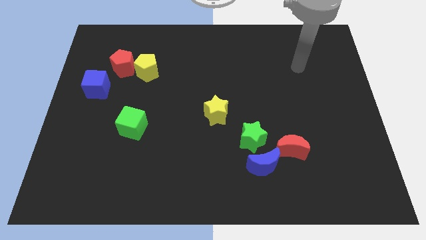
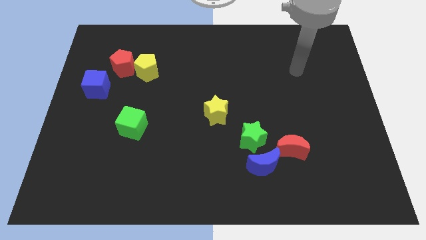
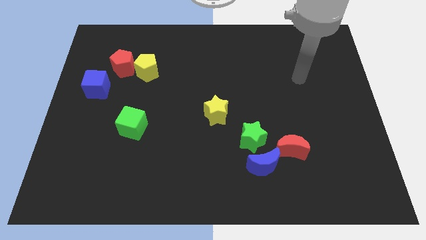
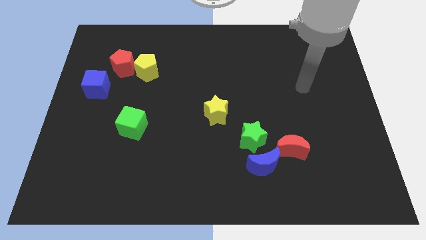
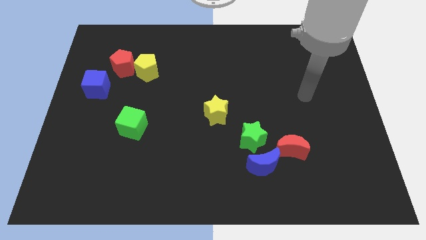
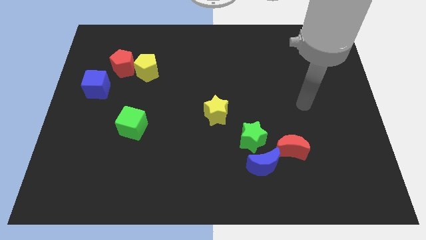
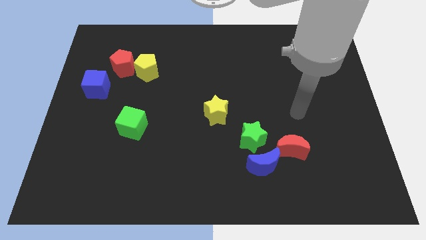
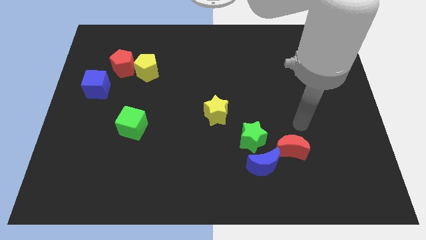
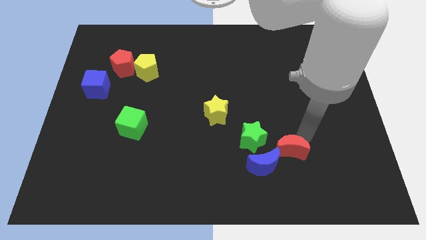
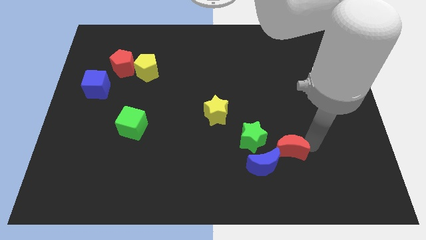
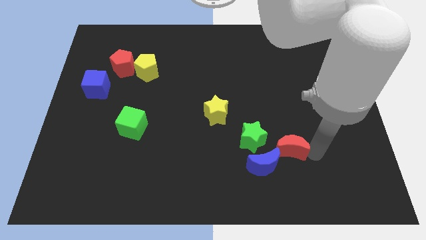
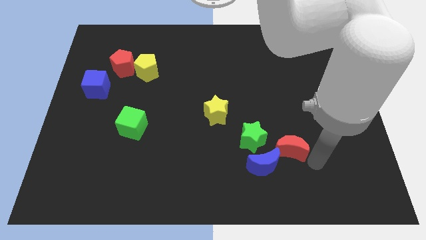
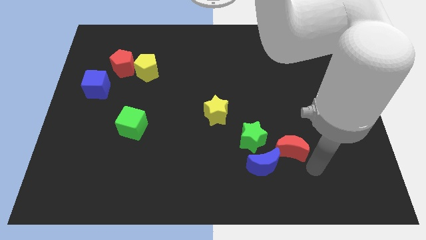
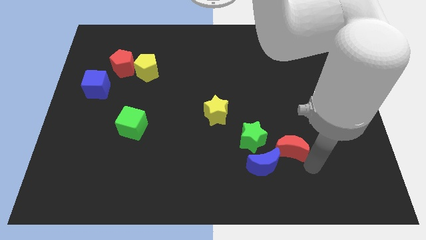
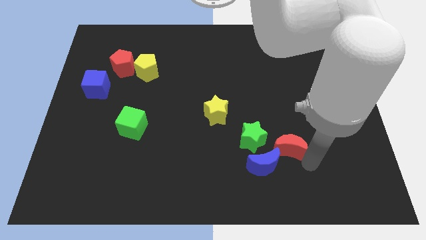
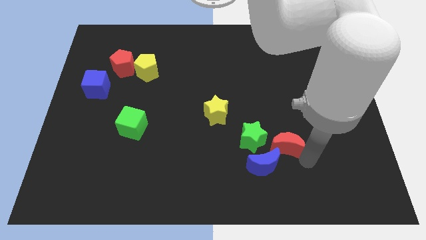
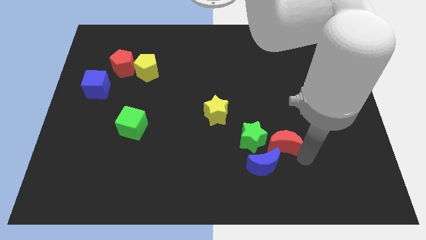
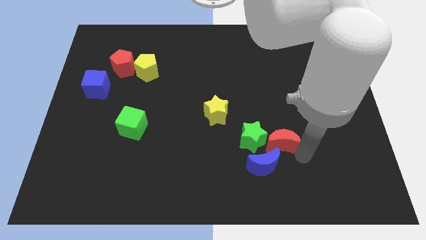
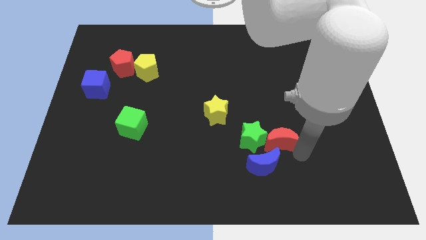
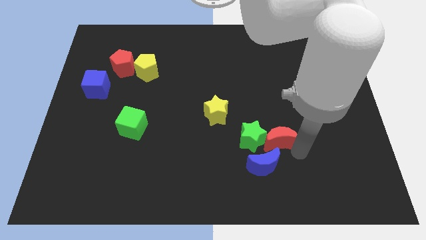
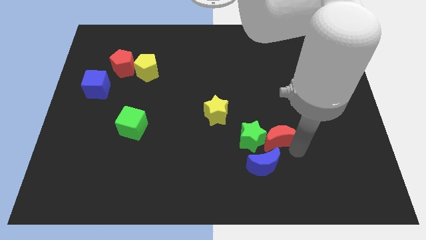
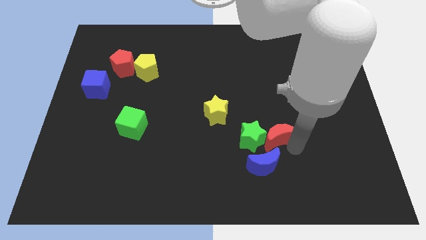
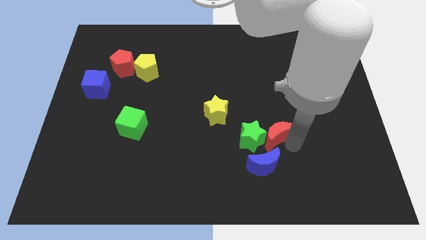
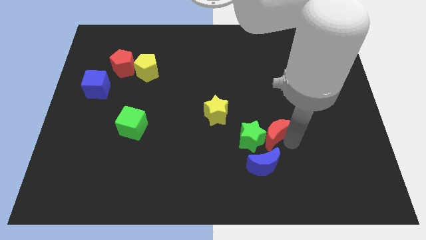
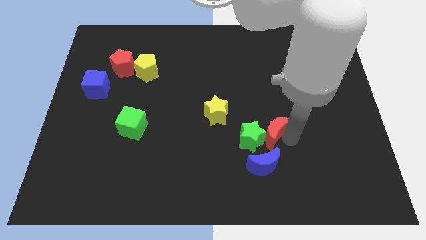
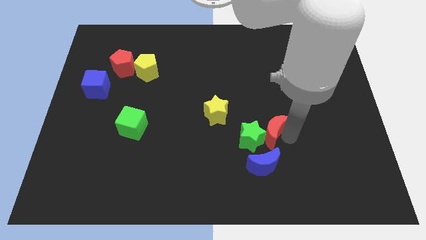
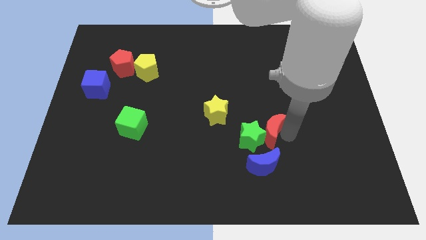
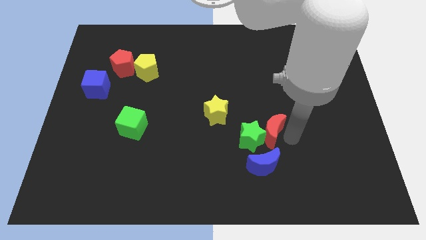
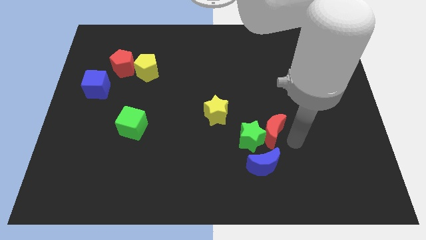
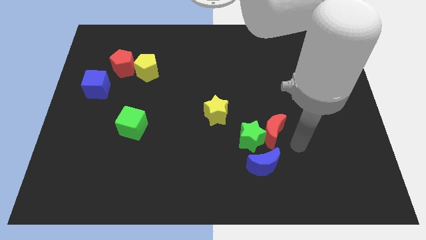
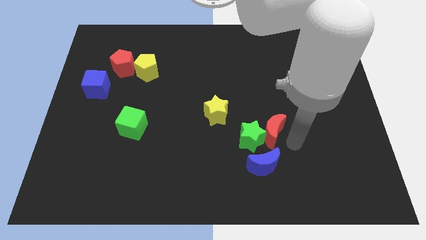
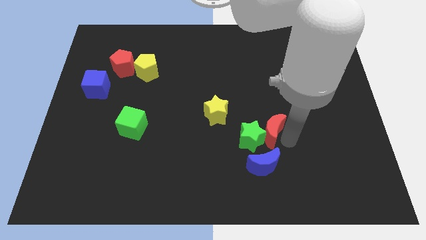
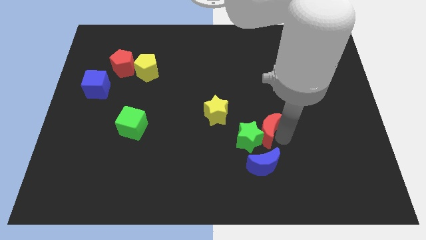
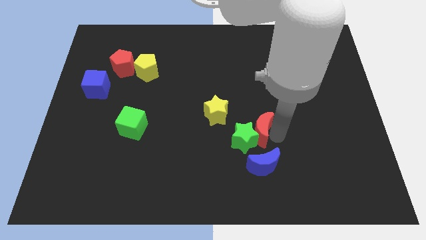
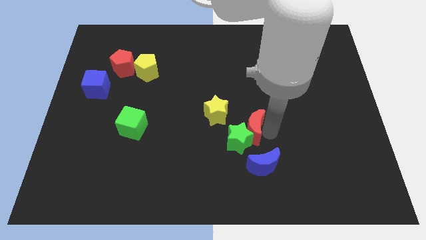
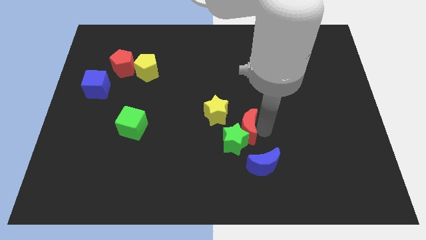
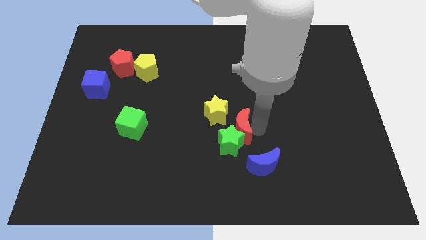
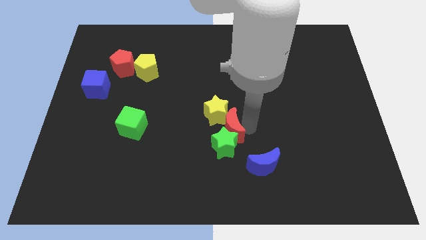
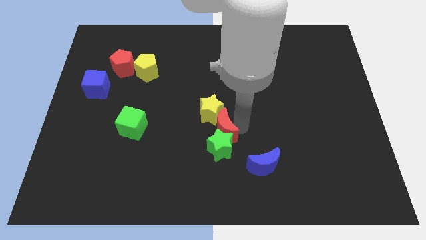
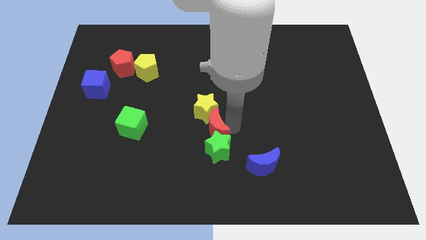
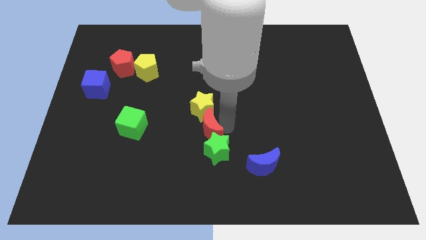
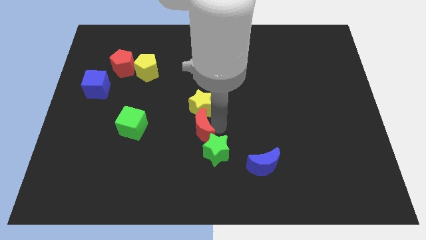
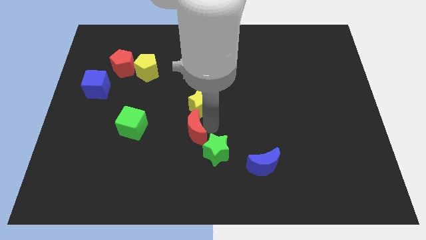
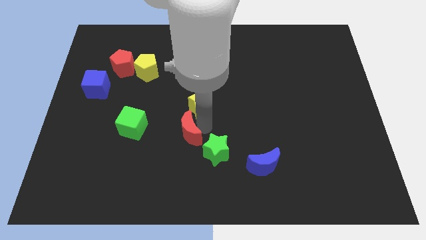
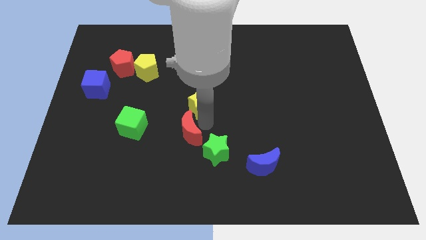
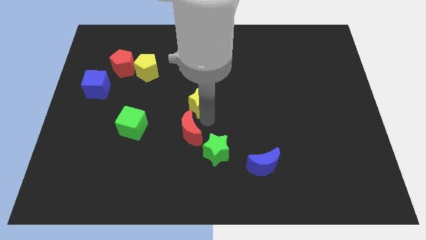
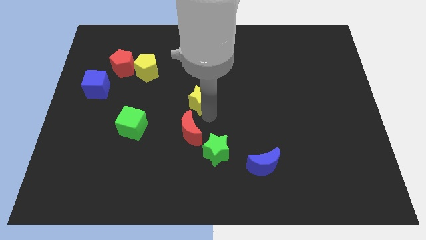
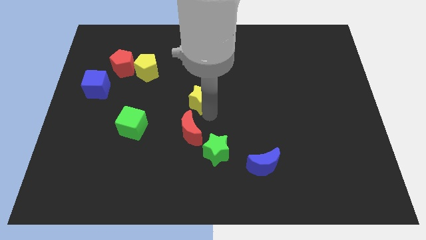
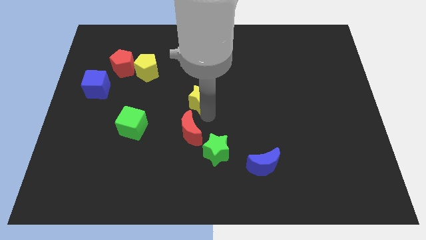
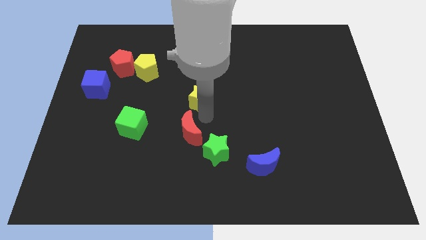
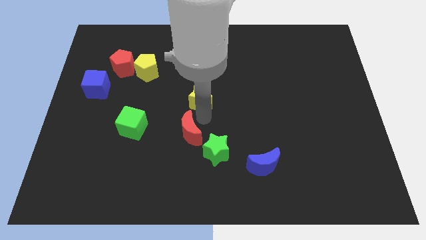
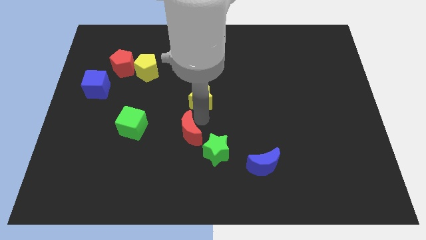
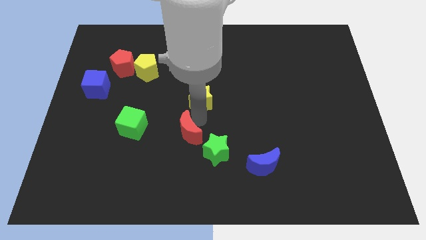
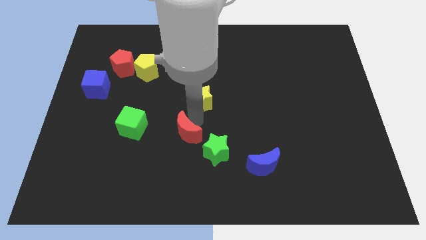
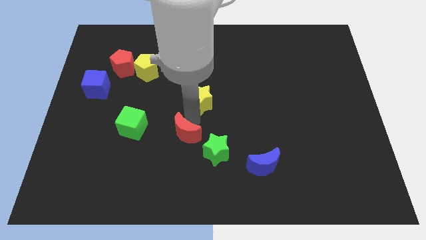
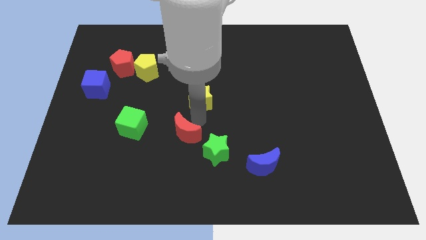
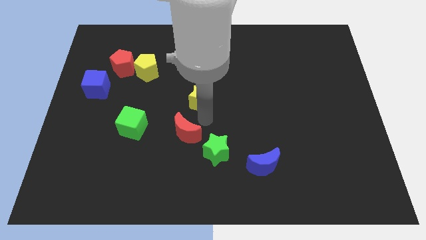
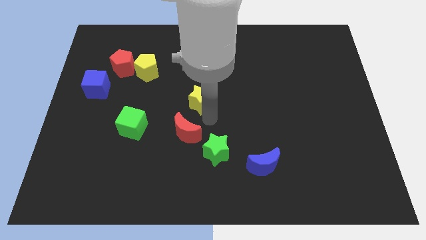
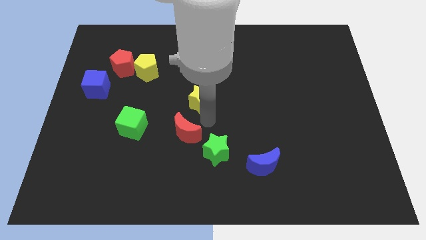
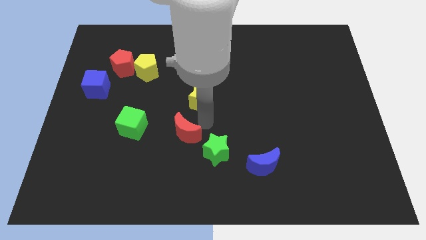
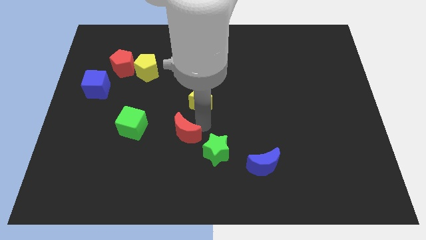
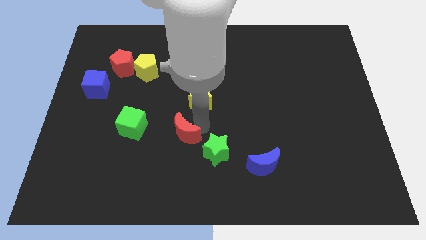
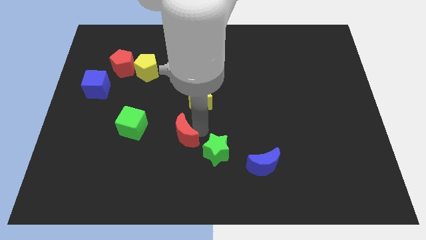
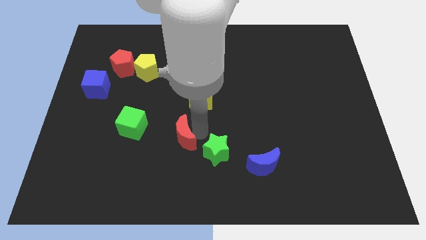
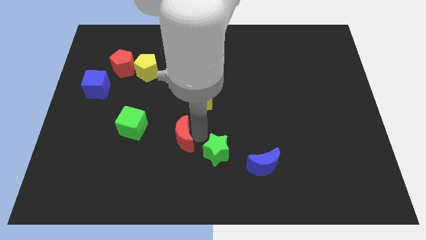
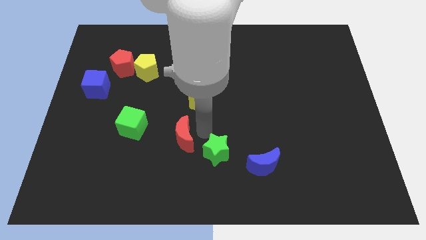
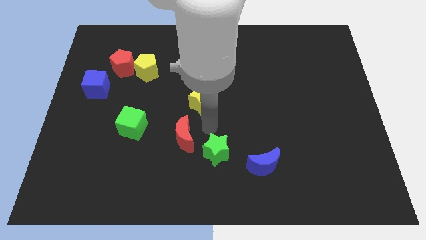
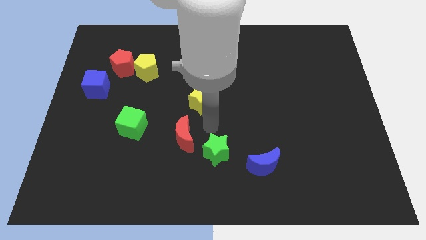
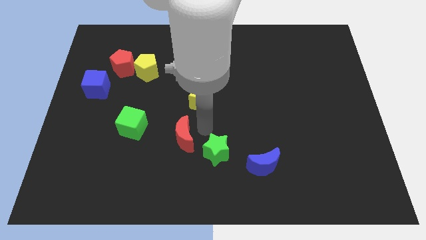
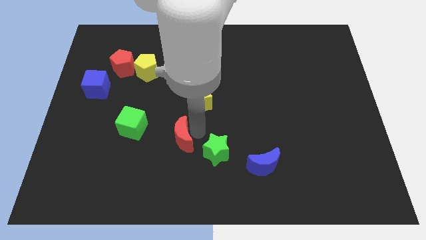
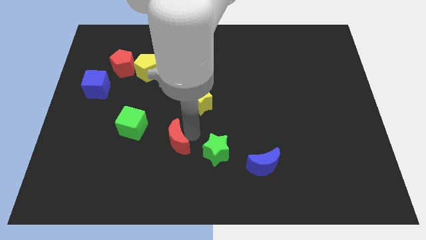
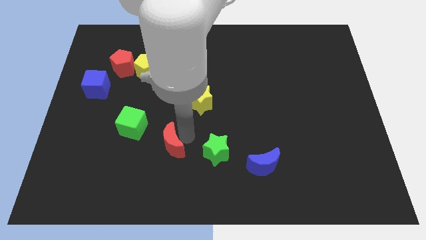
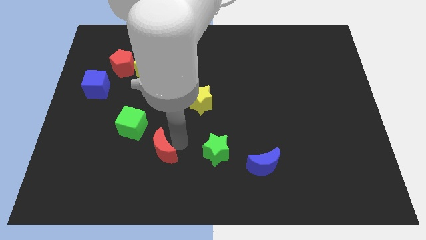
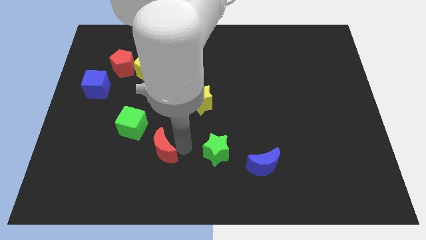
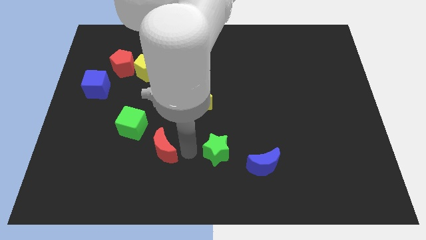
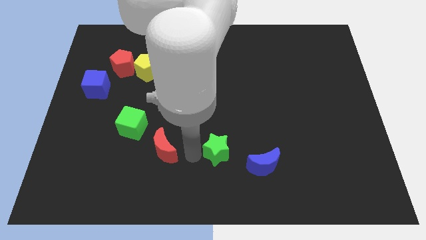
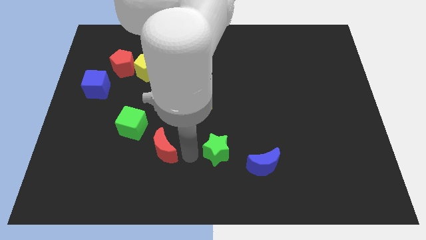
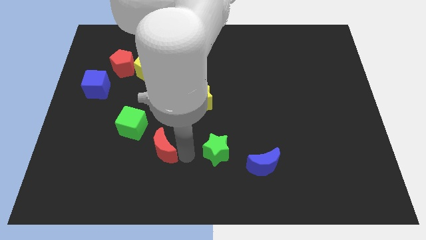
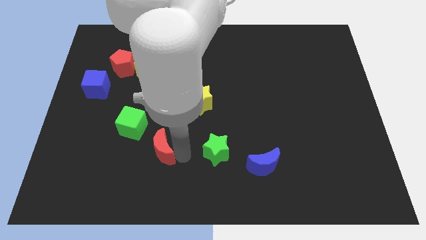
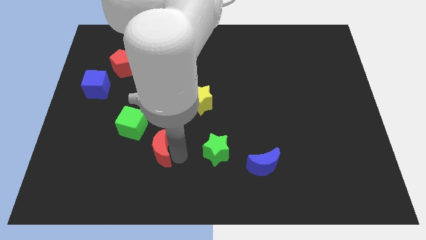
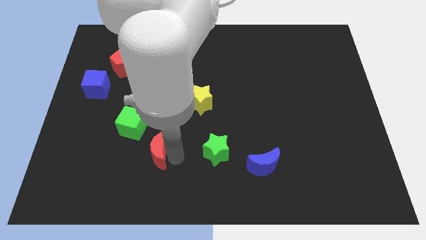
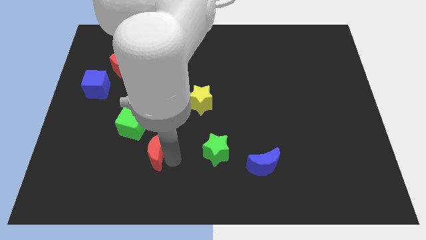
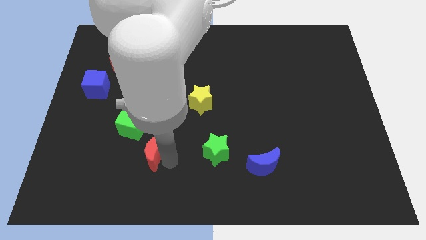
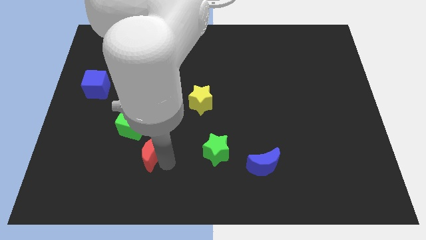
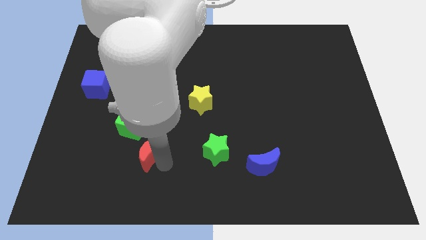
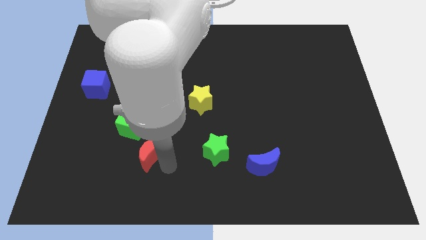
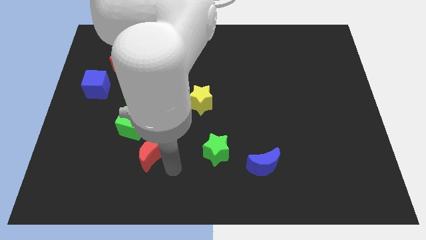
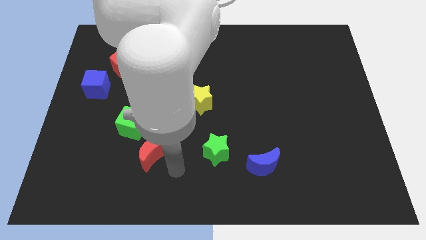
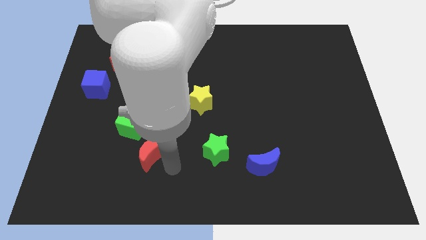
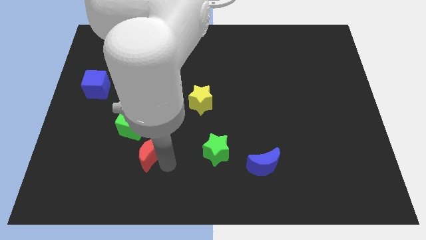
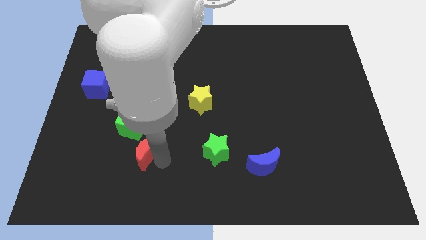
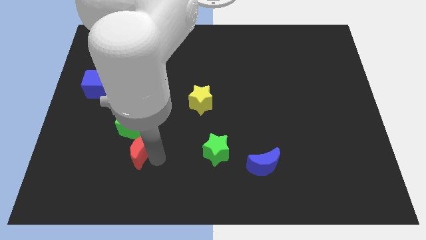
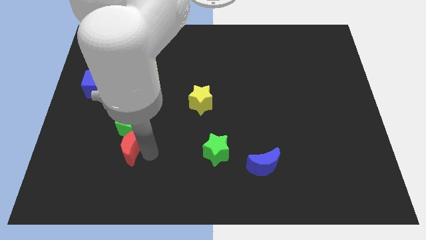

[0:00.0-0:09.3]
push the red moon diagonally down and to the left of the green cube
